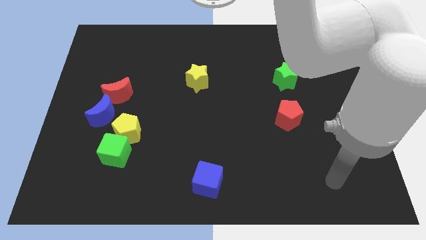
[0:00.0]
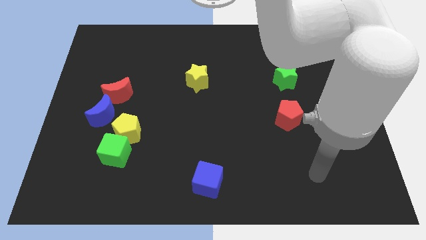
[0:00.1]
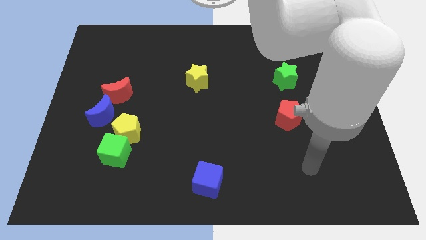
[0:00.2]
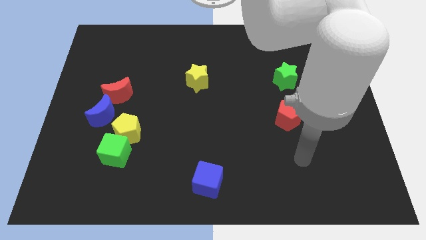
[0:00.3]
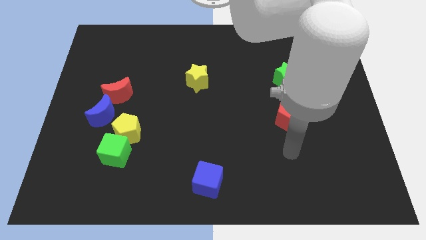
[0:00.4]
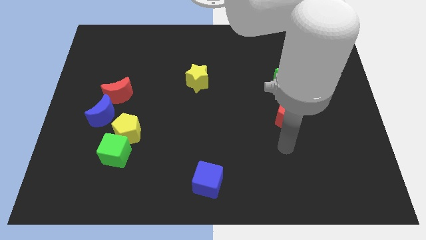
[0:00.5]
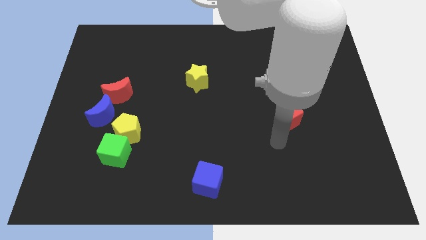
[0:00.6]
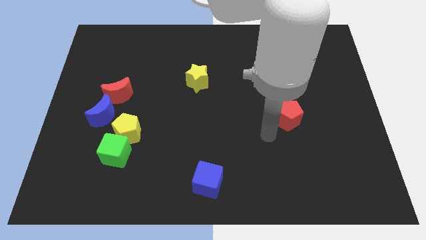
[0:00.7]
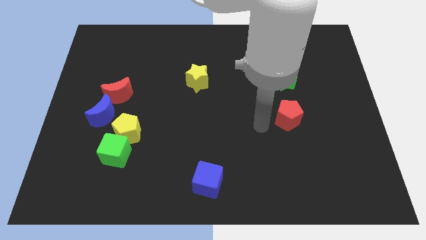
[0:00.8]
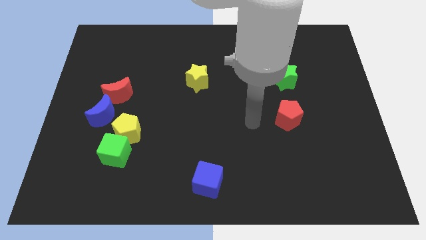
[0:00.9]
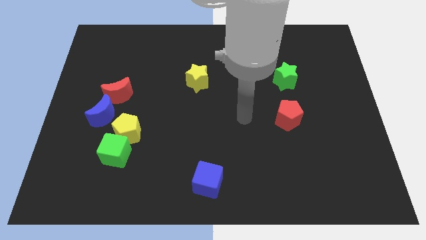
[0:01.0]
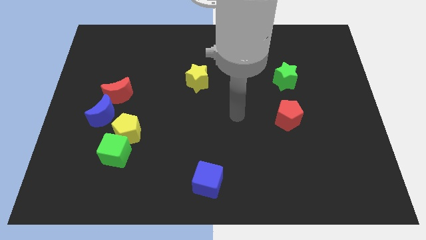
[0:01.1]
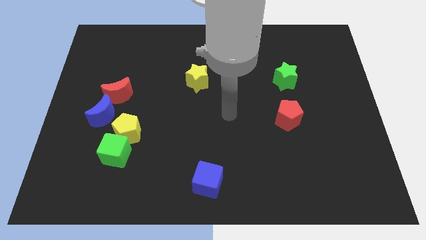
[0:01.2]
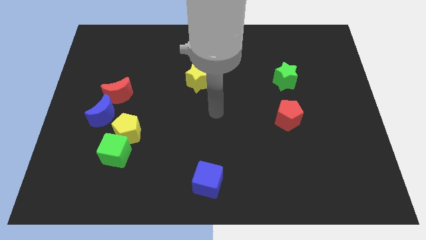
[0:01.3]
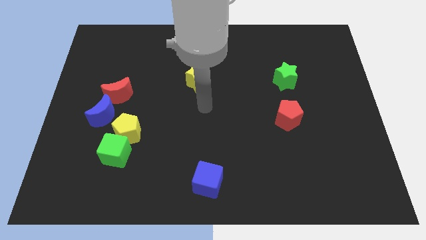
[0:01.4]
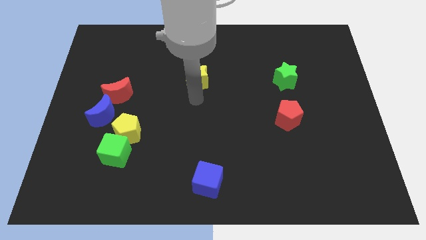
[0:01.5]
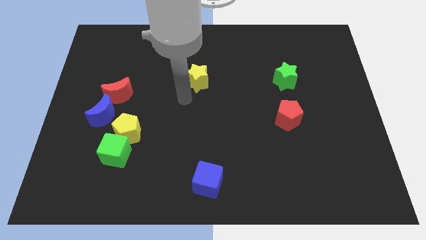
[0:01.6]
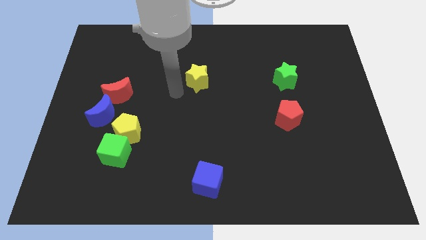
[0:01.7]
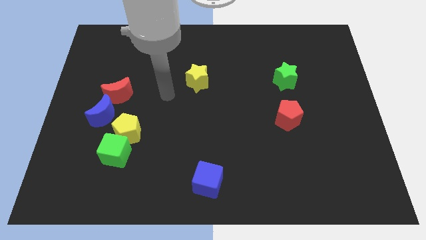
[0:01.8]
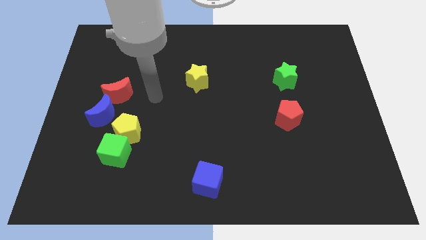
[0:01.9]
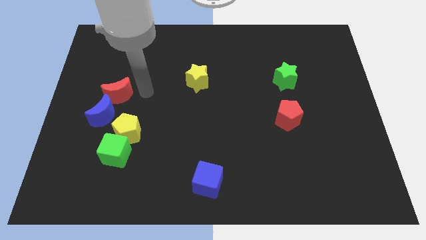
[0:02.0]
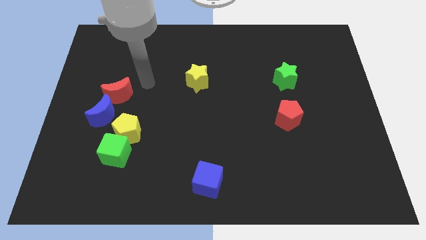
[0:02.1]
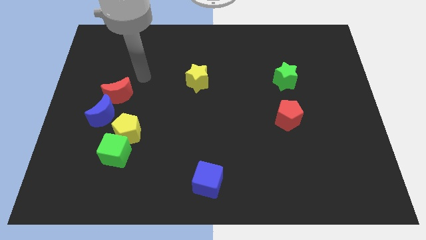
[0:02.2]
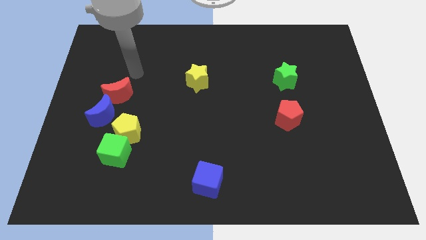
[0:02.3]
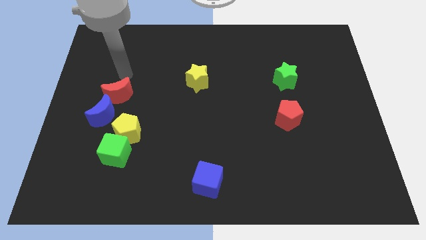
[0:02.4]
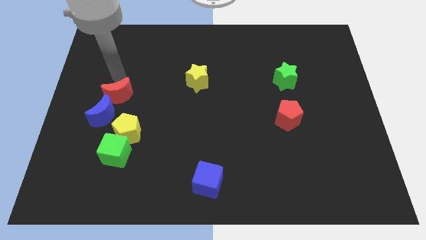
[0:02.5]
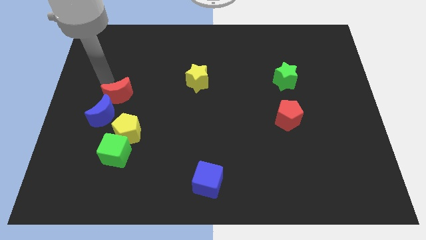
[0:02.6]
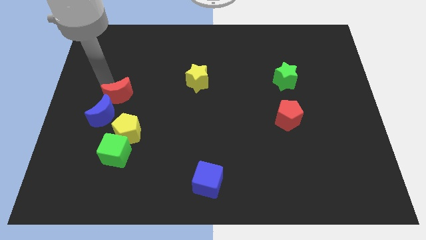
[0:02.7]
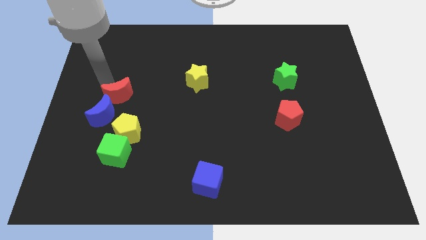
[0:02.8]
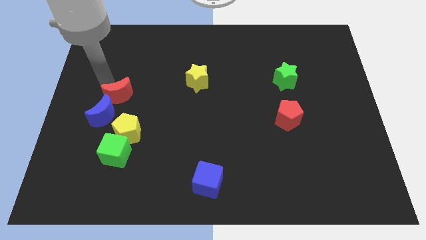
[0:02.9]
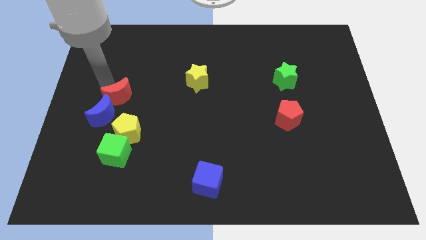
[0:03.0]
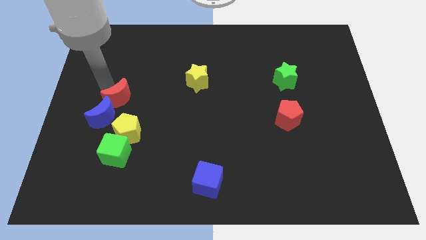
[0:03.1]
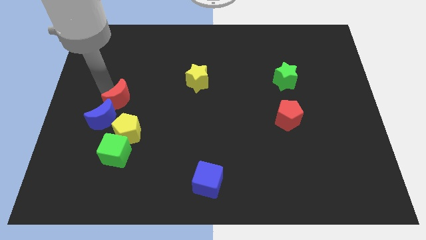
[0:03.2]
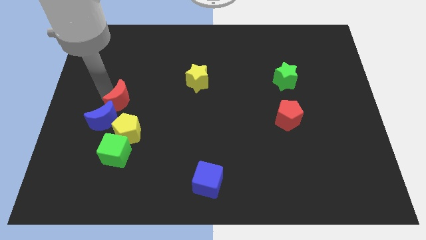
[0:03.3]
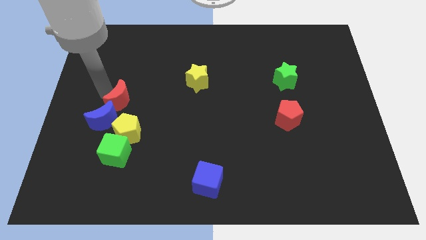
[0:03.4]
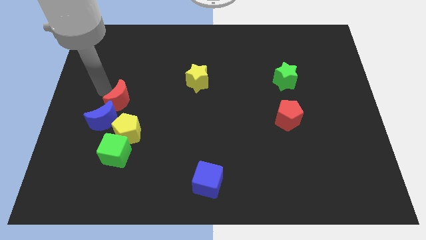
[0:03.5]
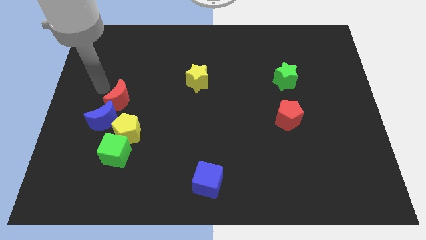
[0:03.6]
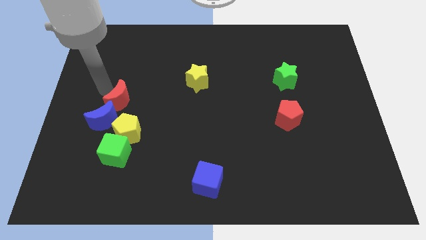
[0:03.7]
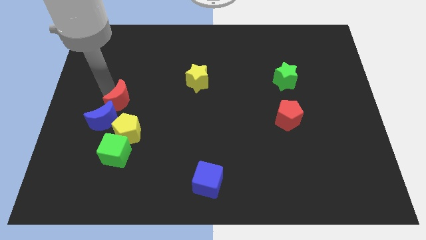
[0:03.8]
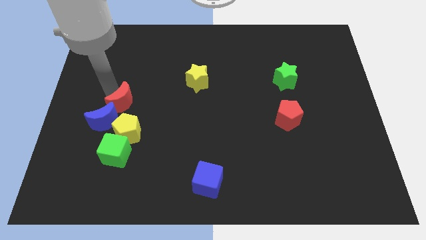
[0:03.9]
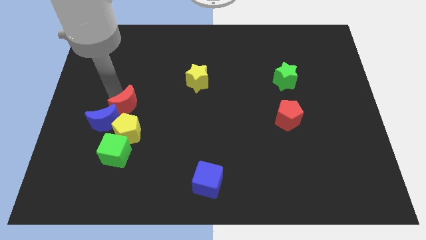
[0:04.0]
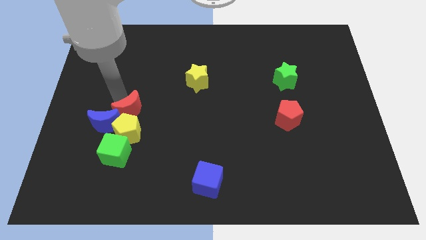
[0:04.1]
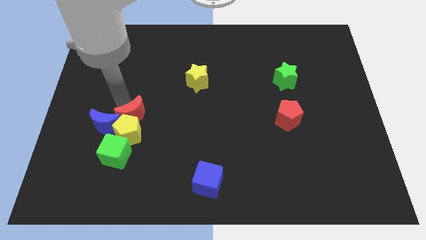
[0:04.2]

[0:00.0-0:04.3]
move the red moon a little bit downwards and to the right diagonally

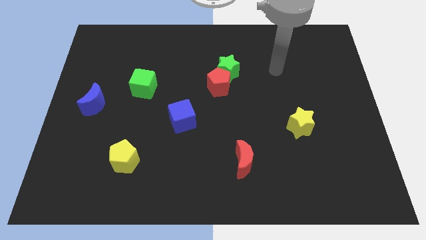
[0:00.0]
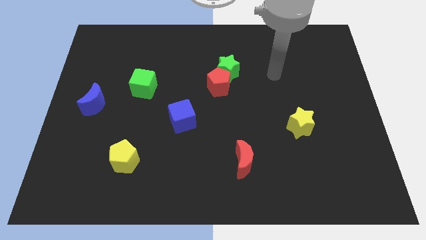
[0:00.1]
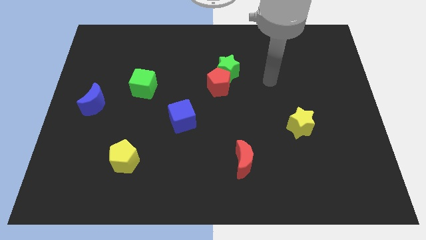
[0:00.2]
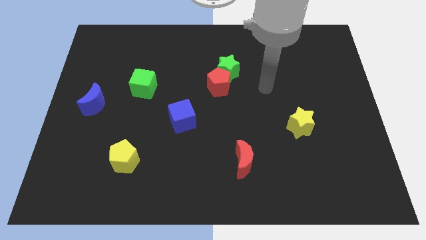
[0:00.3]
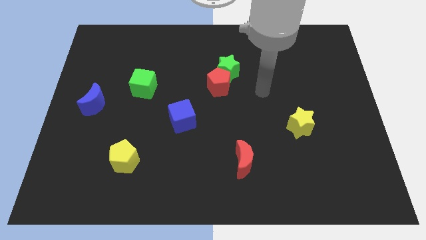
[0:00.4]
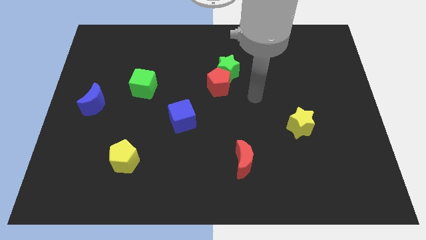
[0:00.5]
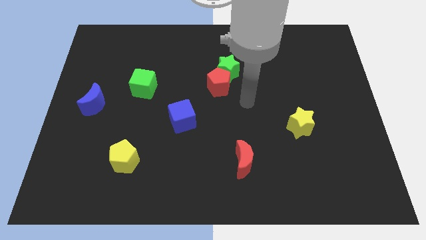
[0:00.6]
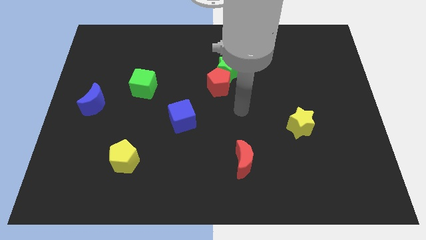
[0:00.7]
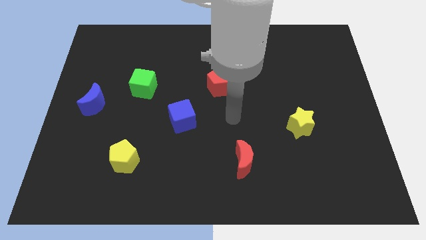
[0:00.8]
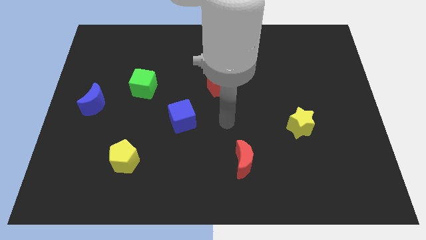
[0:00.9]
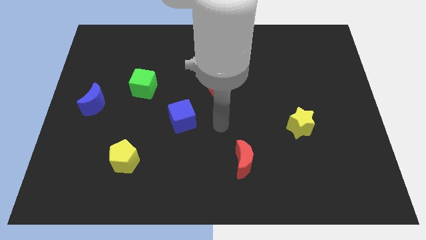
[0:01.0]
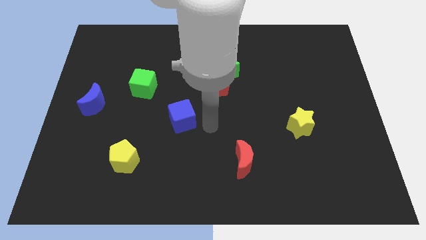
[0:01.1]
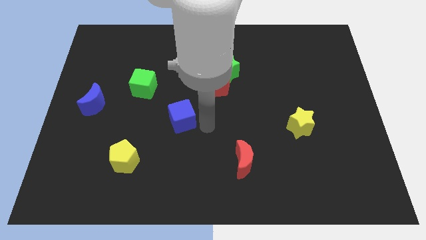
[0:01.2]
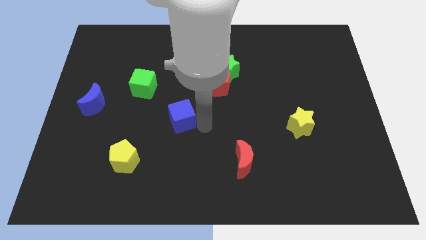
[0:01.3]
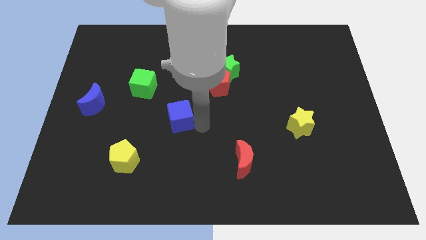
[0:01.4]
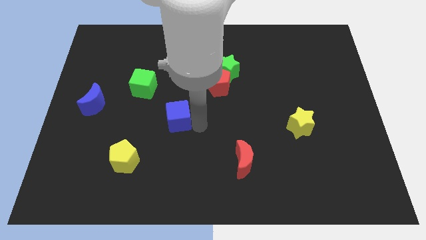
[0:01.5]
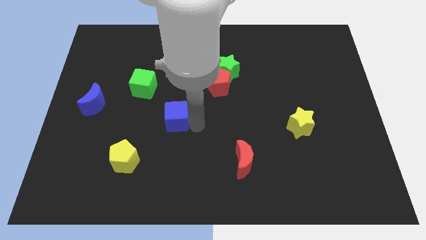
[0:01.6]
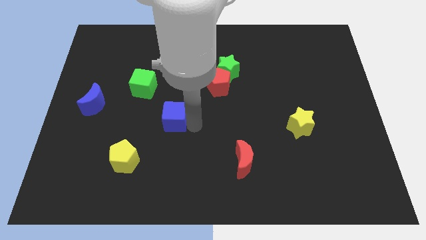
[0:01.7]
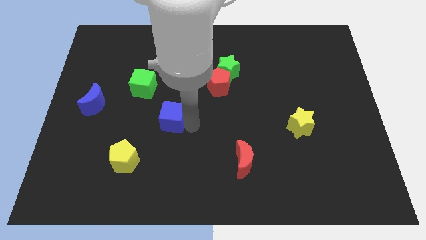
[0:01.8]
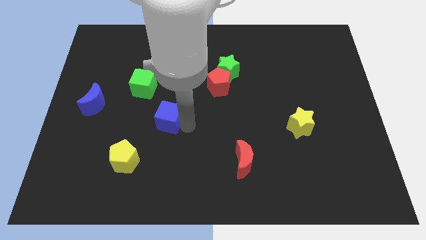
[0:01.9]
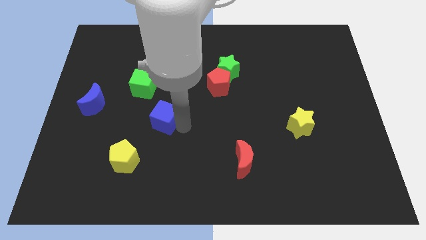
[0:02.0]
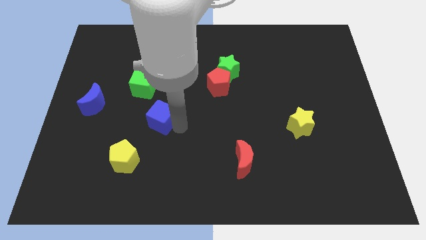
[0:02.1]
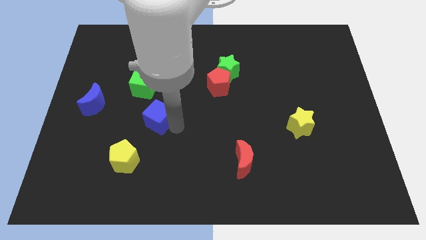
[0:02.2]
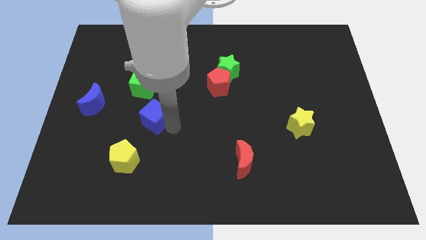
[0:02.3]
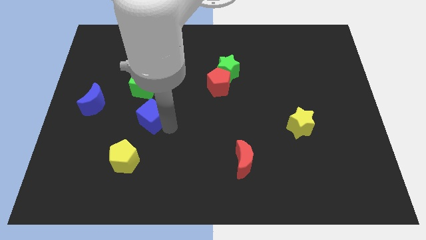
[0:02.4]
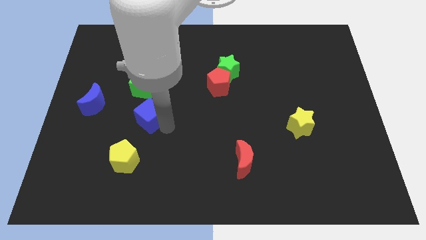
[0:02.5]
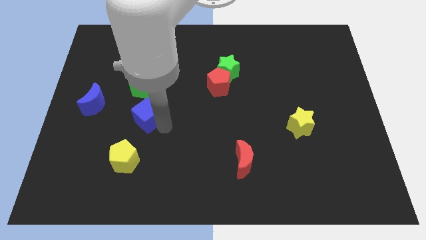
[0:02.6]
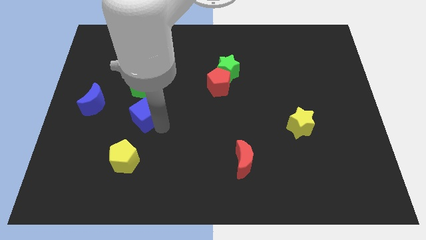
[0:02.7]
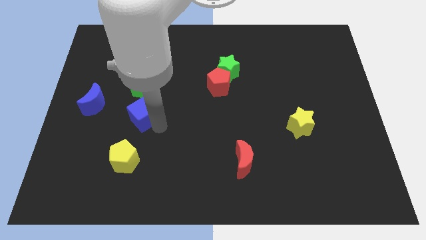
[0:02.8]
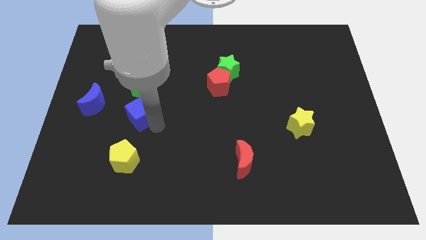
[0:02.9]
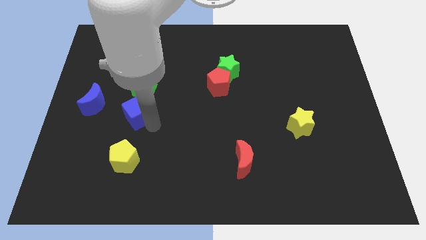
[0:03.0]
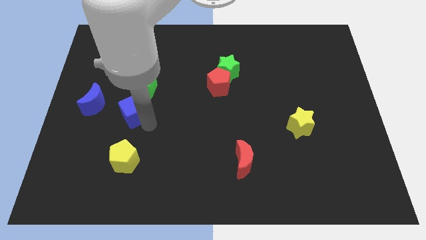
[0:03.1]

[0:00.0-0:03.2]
slide the blue cube a little up and then to the left

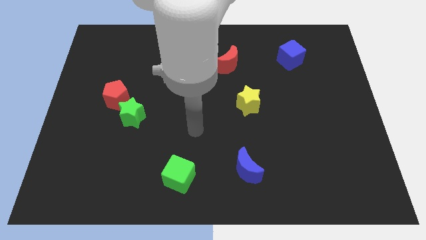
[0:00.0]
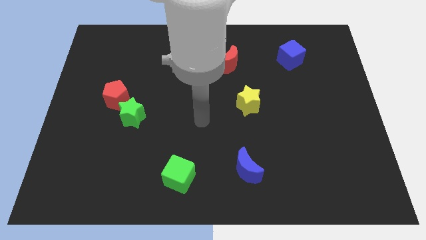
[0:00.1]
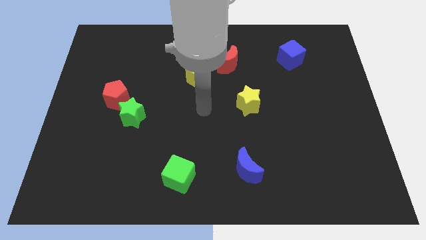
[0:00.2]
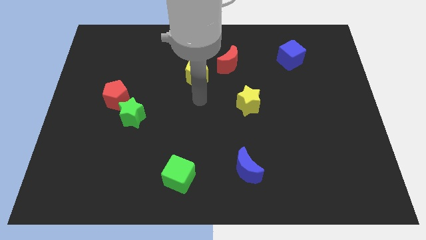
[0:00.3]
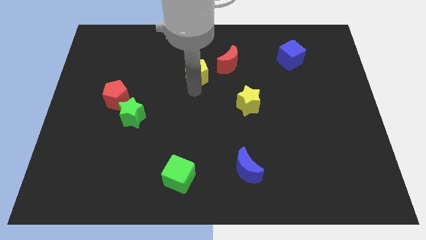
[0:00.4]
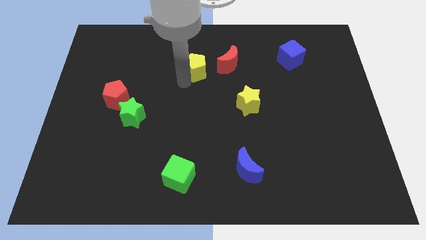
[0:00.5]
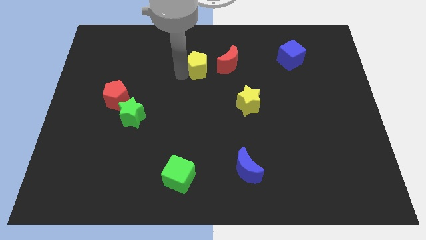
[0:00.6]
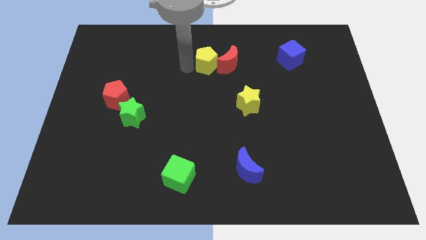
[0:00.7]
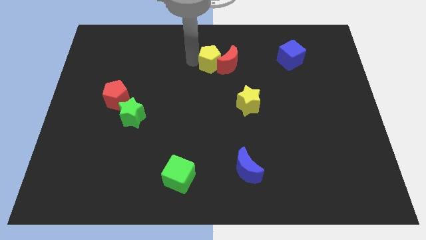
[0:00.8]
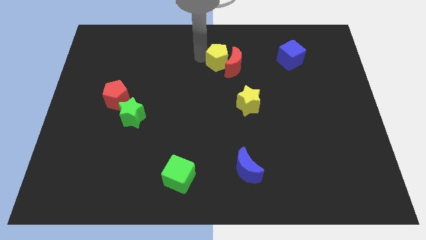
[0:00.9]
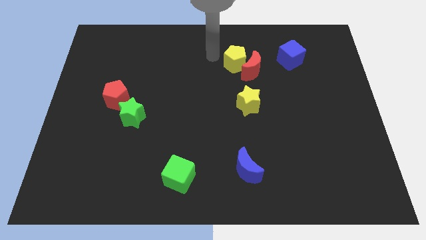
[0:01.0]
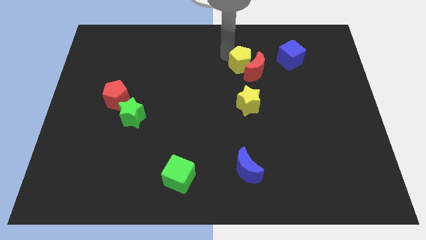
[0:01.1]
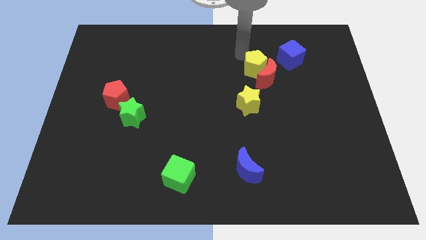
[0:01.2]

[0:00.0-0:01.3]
slide the red moon a bit down and then to the right
